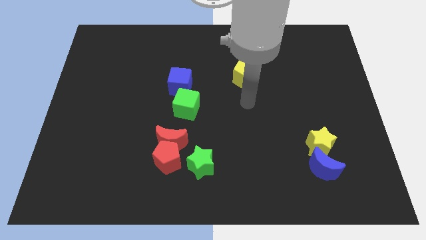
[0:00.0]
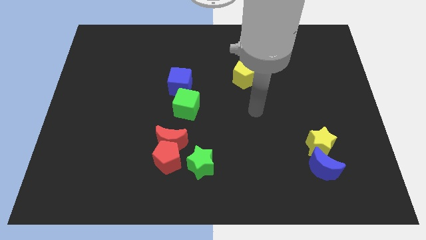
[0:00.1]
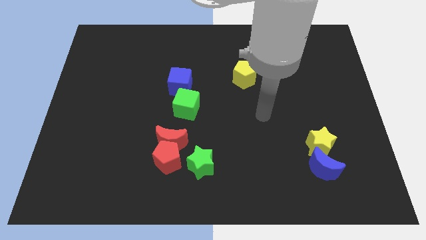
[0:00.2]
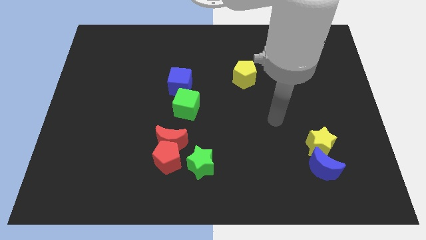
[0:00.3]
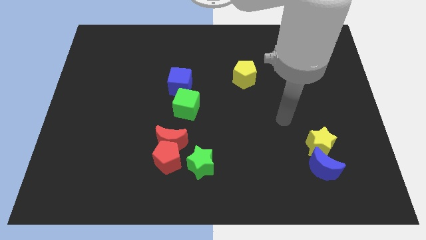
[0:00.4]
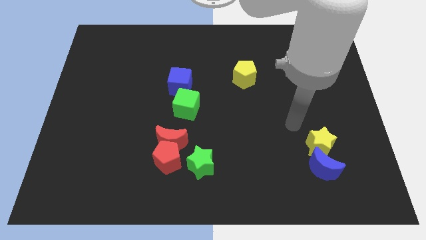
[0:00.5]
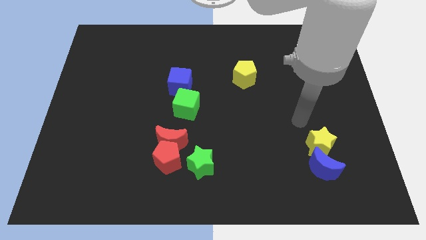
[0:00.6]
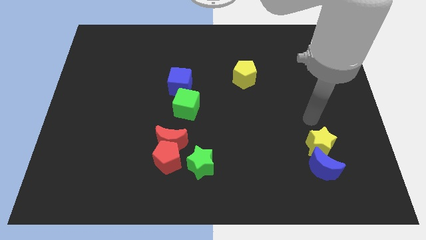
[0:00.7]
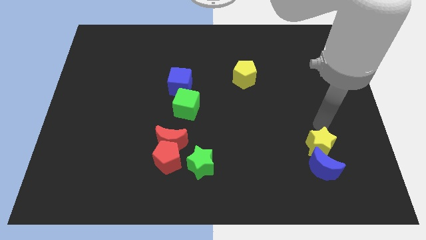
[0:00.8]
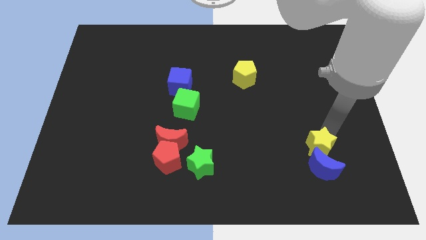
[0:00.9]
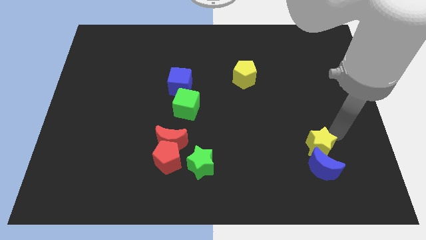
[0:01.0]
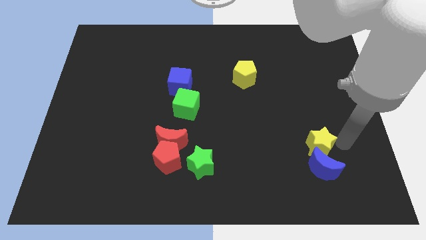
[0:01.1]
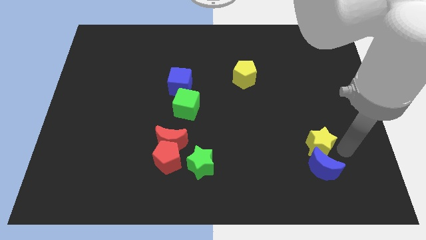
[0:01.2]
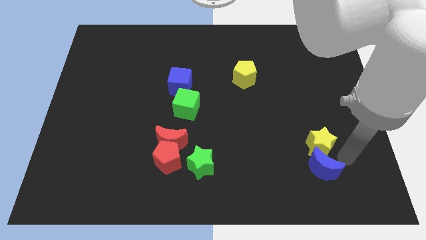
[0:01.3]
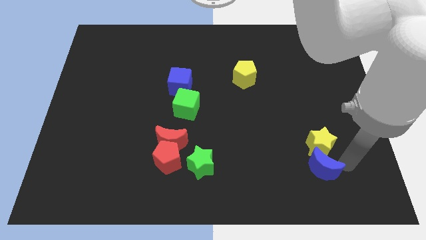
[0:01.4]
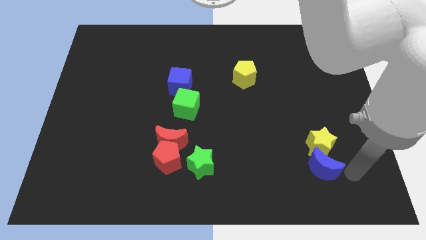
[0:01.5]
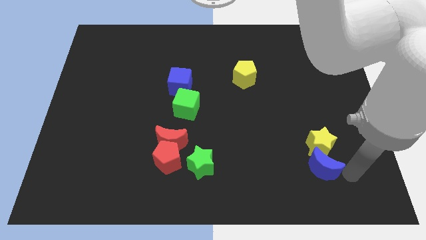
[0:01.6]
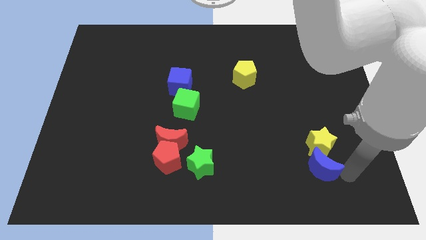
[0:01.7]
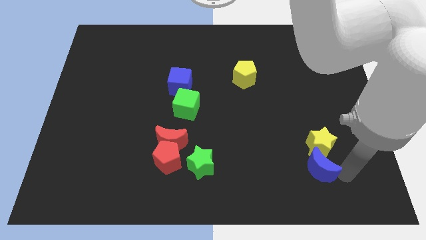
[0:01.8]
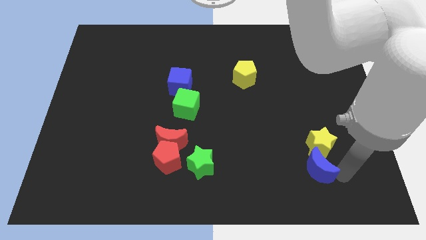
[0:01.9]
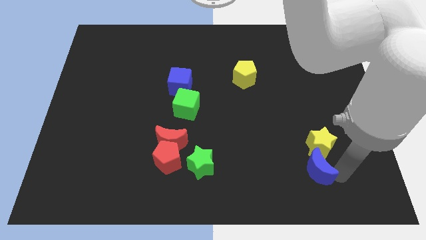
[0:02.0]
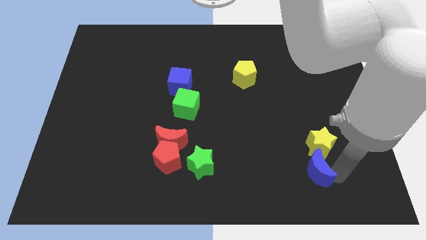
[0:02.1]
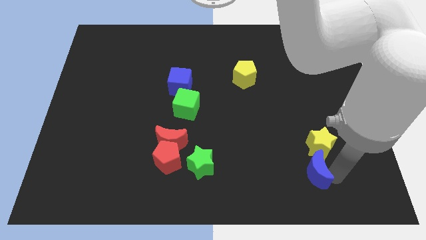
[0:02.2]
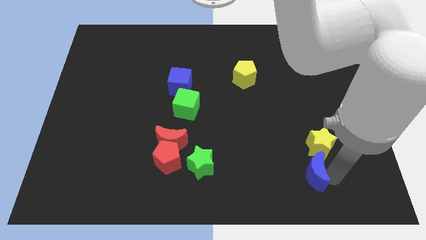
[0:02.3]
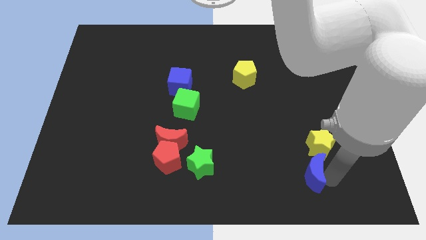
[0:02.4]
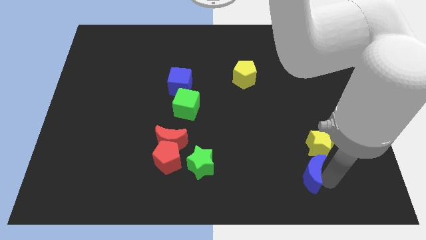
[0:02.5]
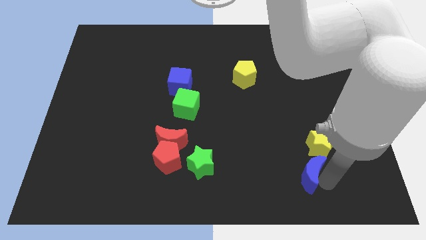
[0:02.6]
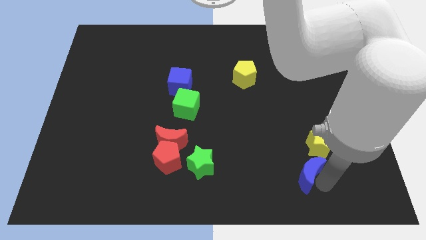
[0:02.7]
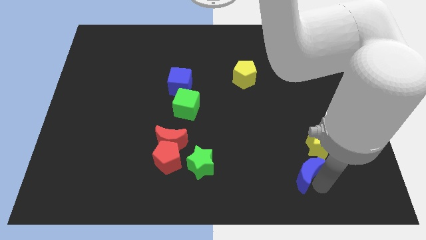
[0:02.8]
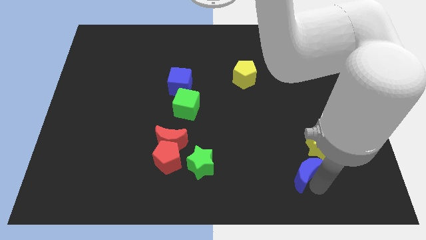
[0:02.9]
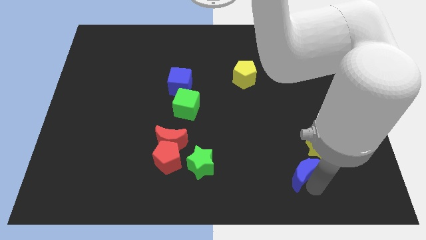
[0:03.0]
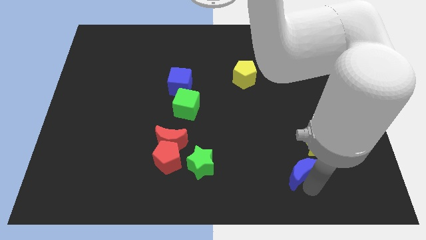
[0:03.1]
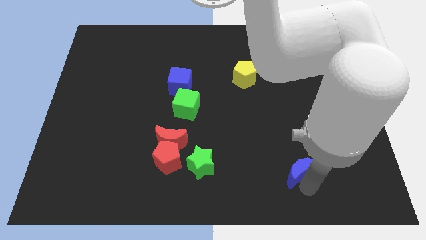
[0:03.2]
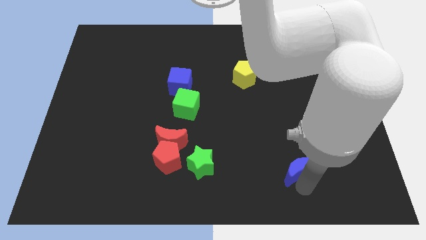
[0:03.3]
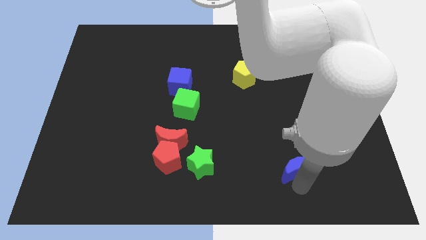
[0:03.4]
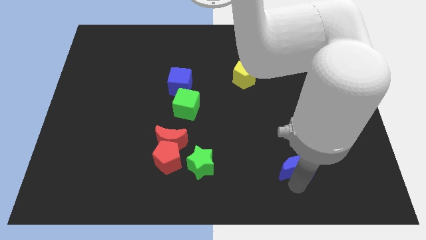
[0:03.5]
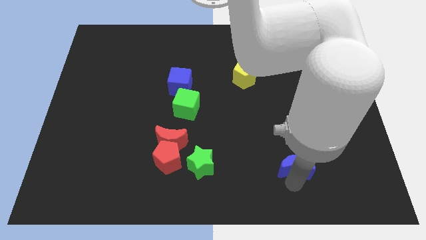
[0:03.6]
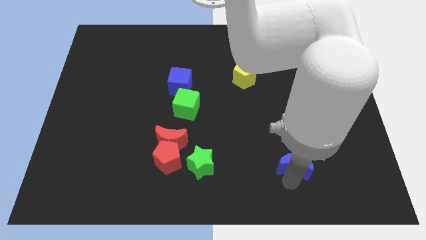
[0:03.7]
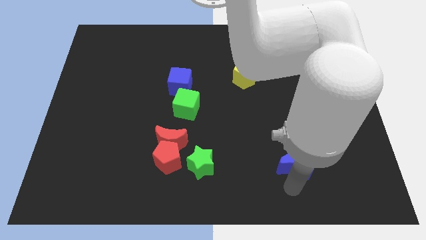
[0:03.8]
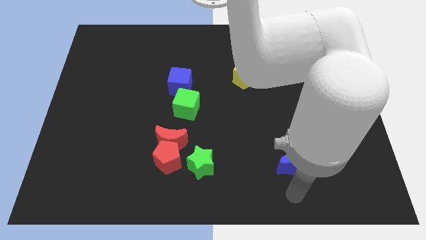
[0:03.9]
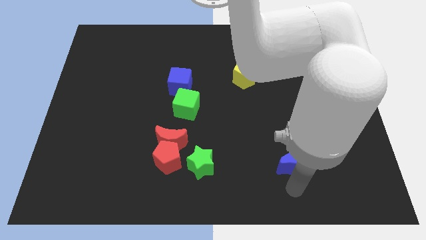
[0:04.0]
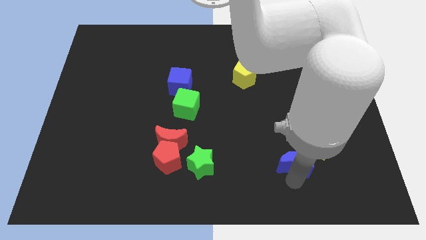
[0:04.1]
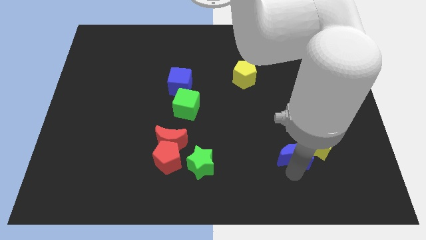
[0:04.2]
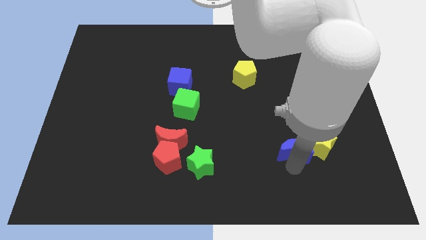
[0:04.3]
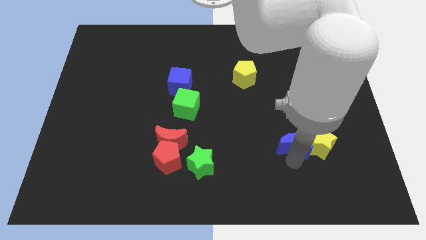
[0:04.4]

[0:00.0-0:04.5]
move the blue moon diagonally up and left a bit

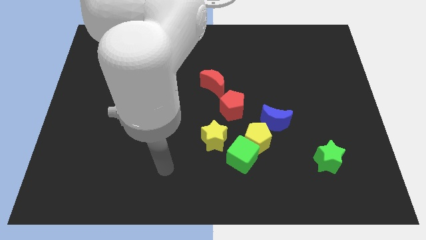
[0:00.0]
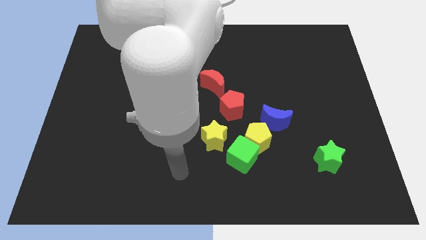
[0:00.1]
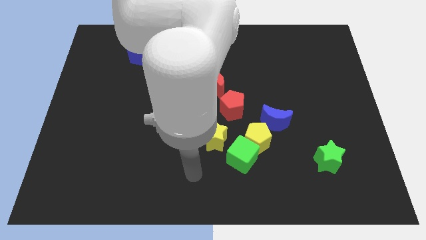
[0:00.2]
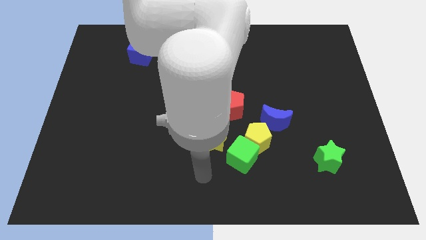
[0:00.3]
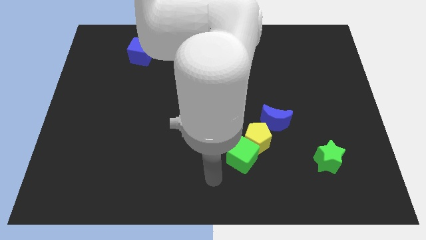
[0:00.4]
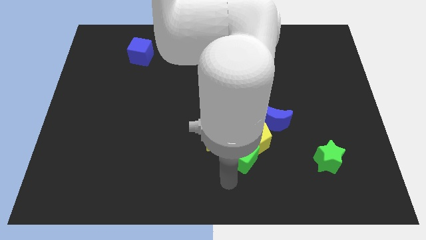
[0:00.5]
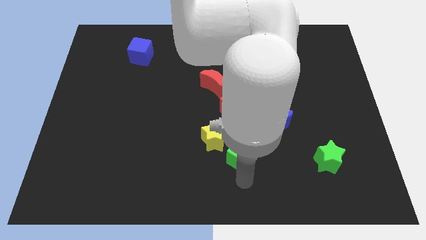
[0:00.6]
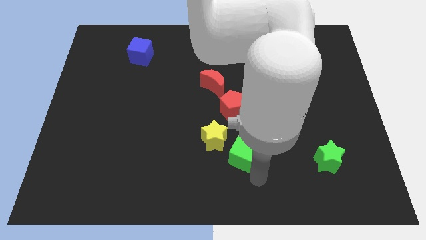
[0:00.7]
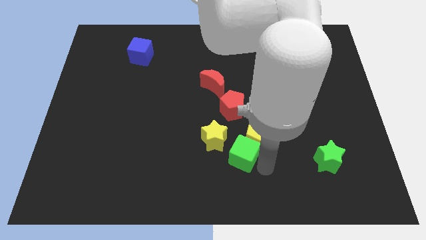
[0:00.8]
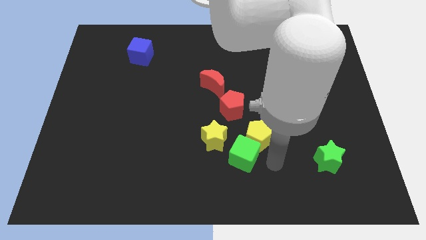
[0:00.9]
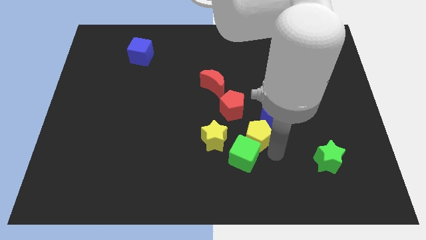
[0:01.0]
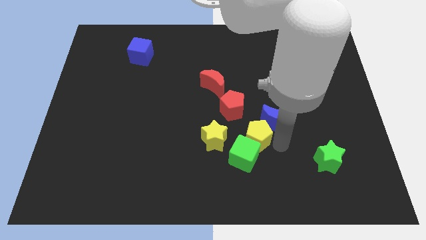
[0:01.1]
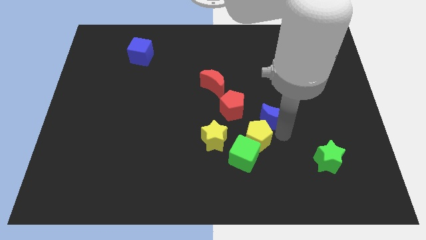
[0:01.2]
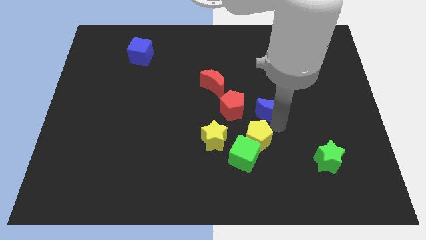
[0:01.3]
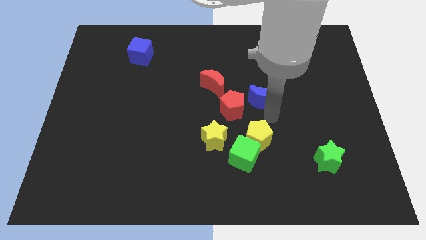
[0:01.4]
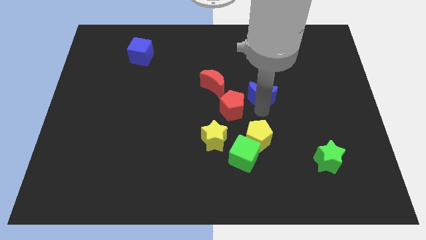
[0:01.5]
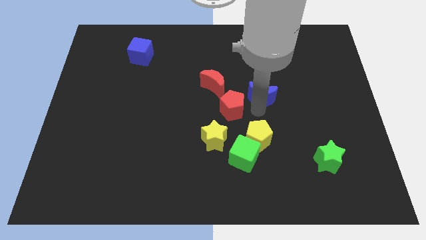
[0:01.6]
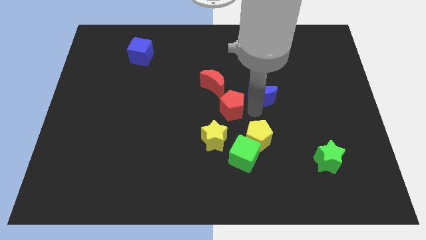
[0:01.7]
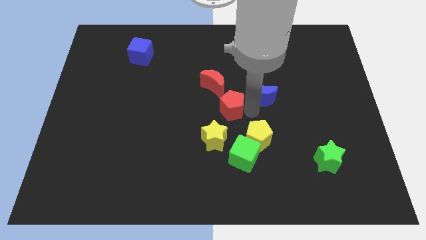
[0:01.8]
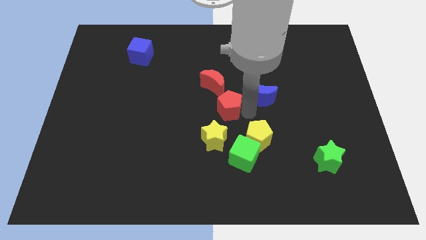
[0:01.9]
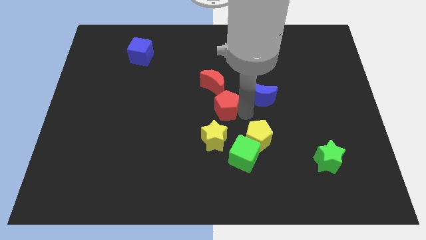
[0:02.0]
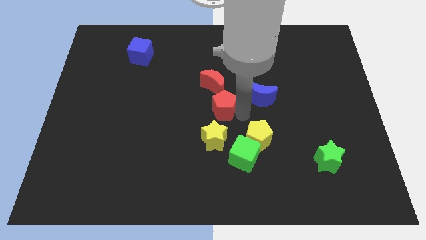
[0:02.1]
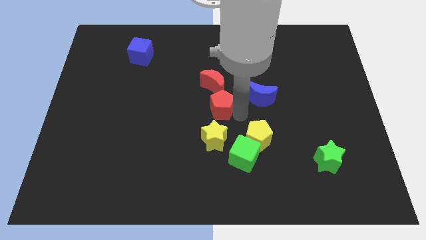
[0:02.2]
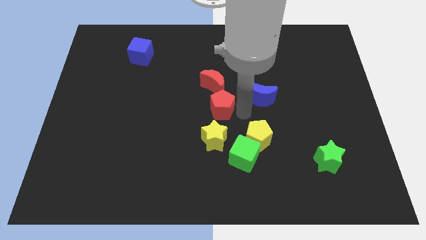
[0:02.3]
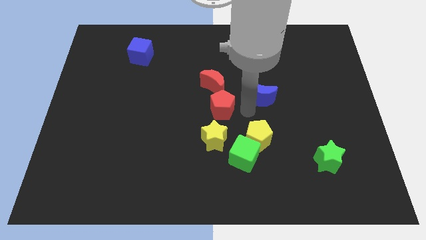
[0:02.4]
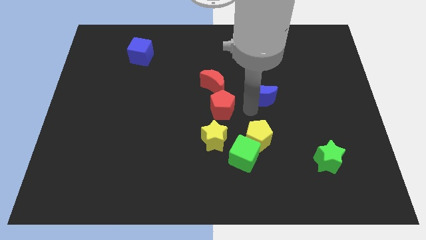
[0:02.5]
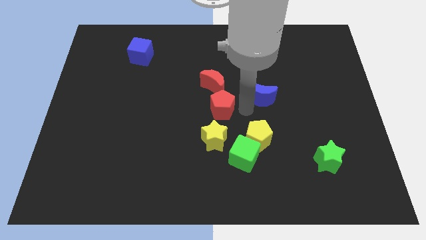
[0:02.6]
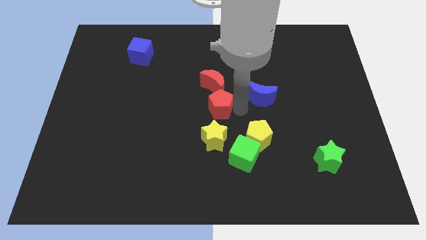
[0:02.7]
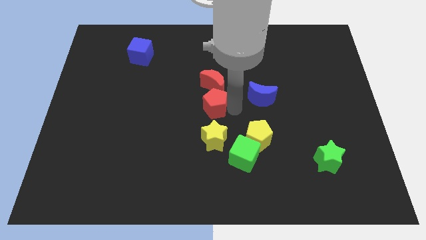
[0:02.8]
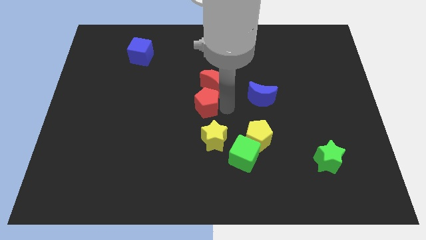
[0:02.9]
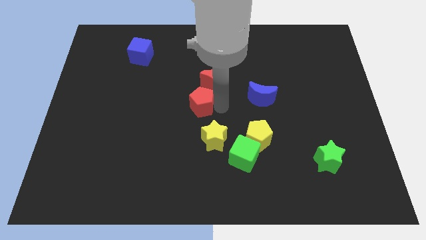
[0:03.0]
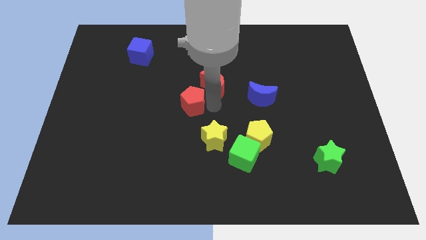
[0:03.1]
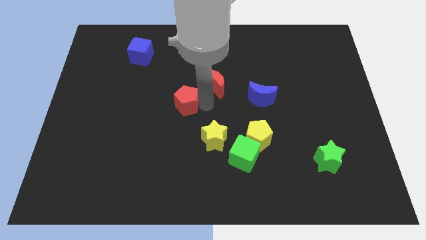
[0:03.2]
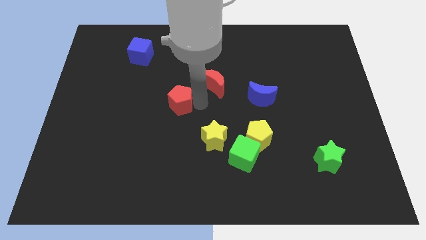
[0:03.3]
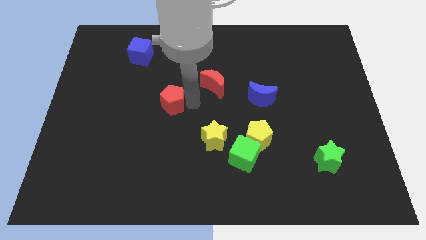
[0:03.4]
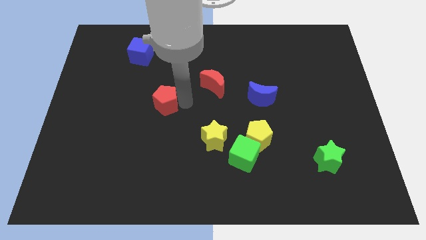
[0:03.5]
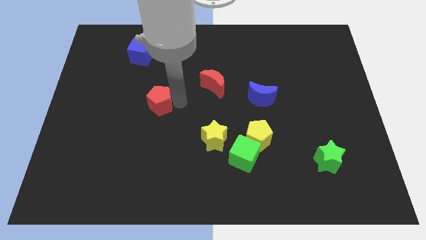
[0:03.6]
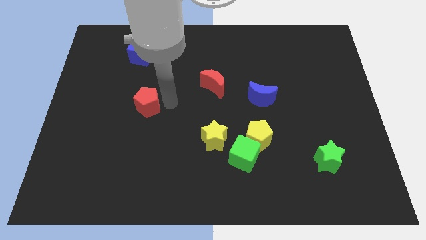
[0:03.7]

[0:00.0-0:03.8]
move the red pentagon left

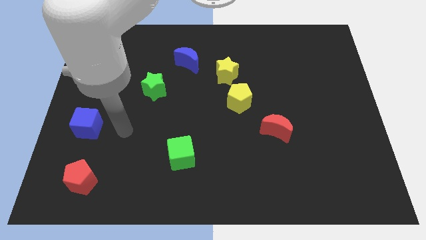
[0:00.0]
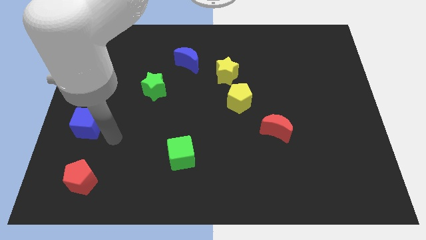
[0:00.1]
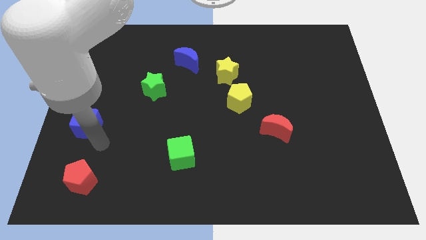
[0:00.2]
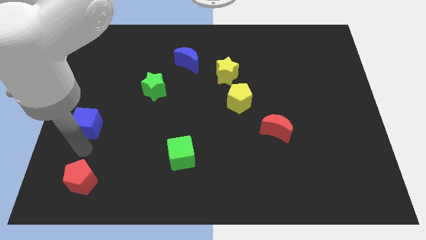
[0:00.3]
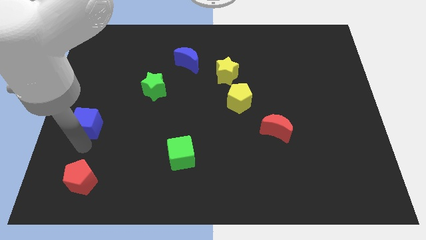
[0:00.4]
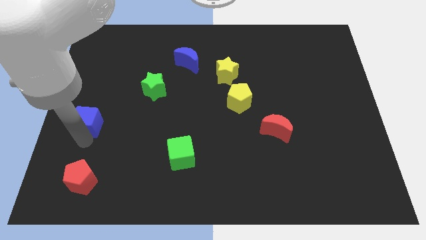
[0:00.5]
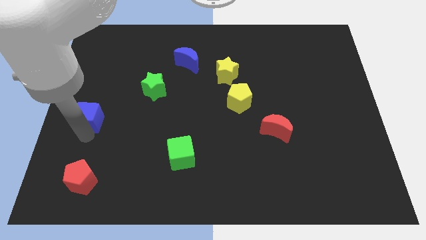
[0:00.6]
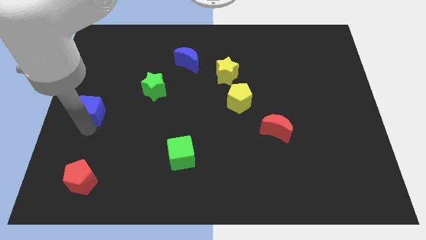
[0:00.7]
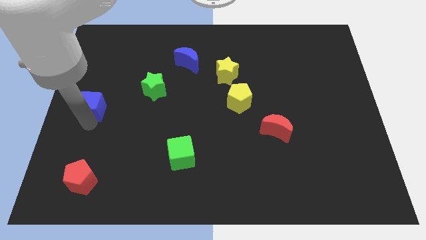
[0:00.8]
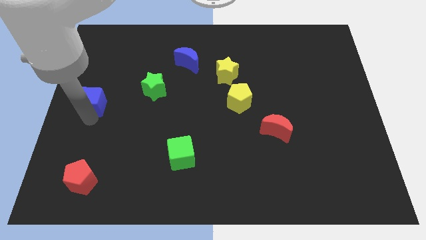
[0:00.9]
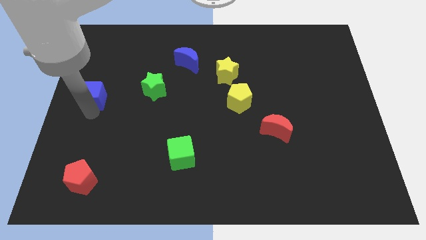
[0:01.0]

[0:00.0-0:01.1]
slightly push the blue cube upwards
